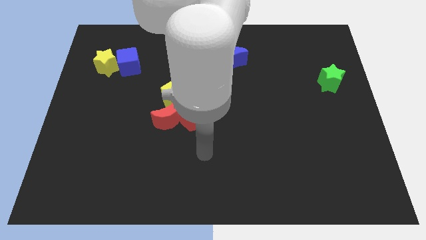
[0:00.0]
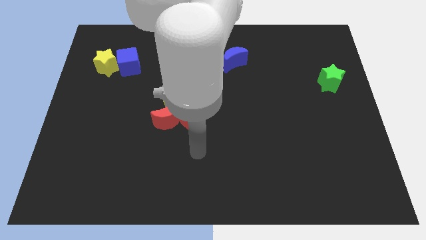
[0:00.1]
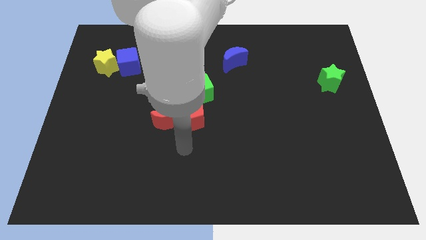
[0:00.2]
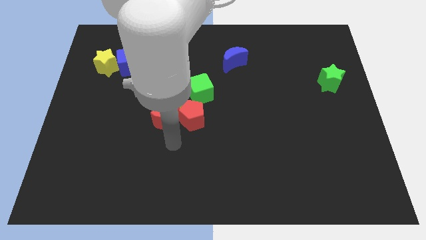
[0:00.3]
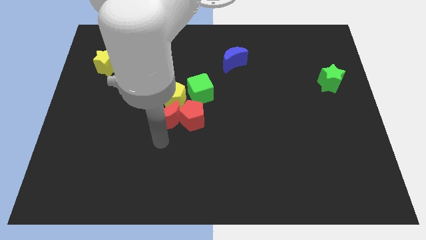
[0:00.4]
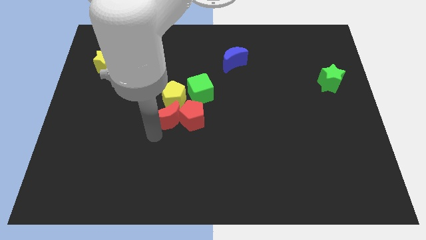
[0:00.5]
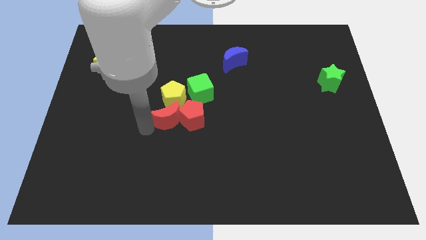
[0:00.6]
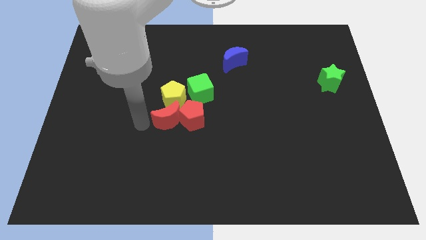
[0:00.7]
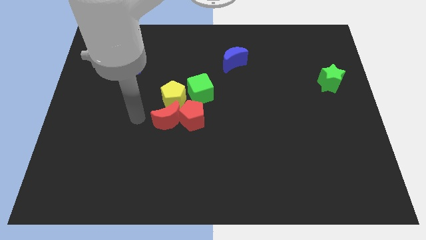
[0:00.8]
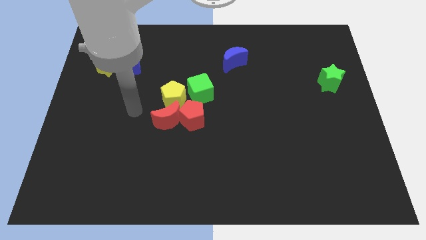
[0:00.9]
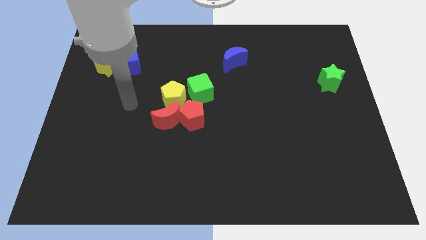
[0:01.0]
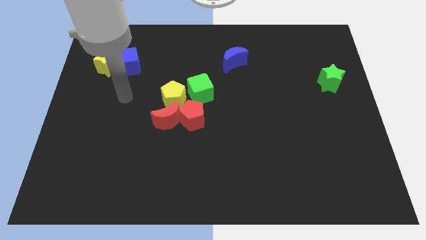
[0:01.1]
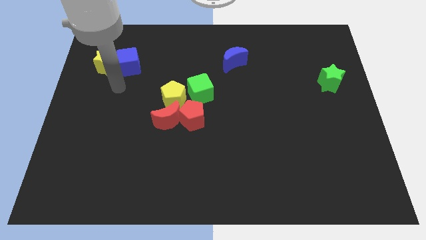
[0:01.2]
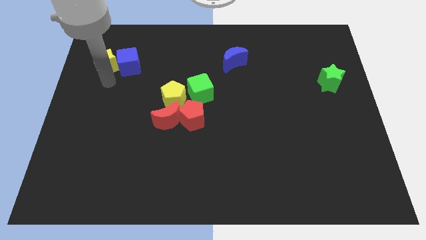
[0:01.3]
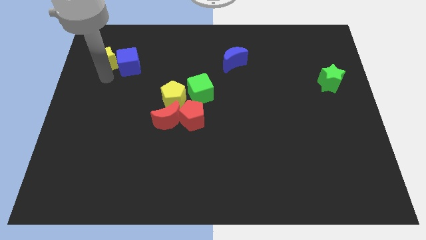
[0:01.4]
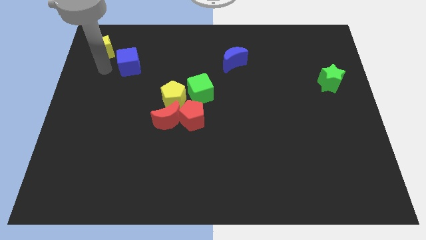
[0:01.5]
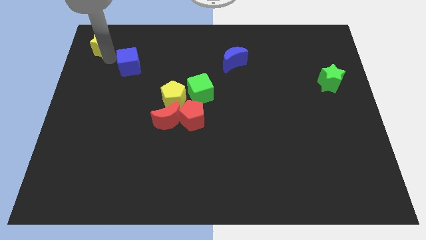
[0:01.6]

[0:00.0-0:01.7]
pull the blue cube apart from the yellow star

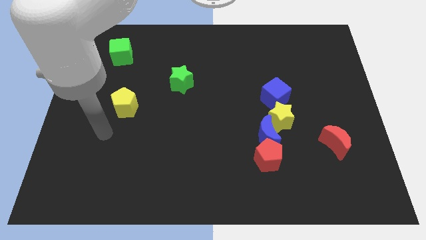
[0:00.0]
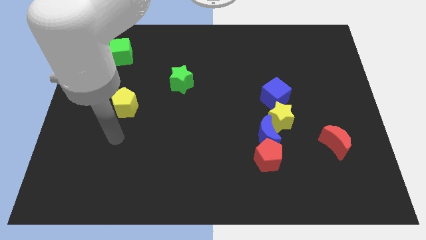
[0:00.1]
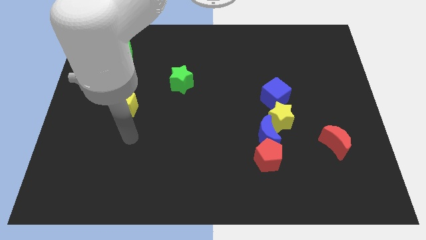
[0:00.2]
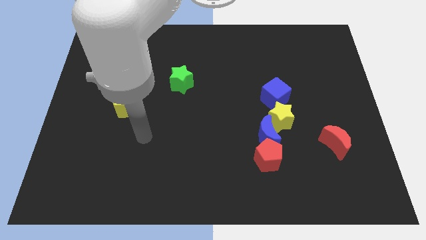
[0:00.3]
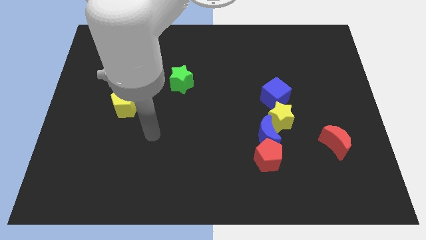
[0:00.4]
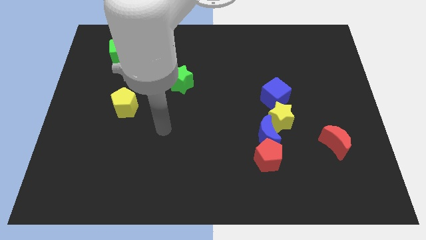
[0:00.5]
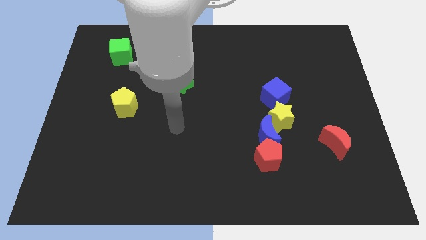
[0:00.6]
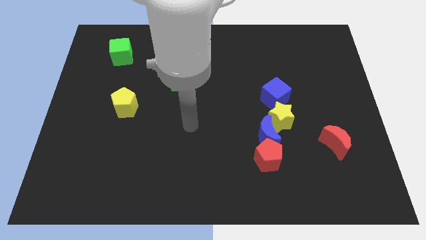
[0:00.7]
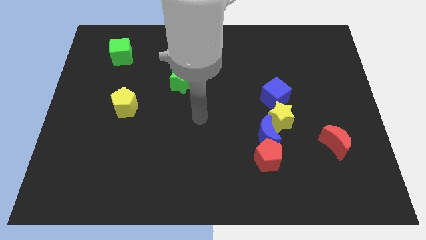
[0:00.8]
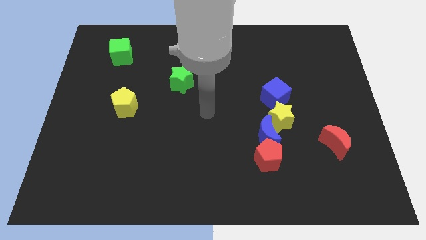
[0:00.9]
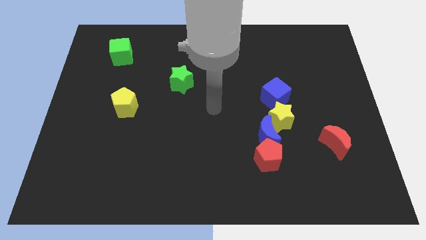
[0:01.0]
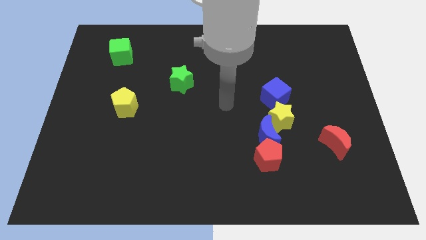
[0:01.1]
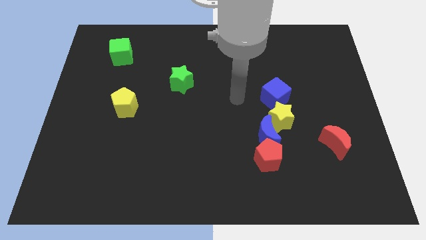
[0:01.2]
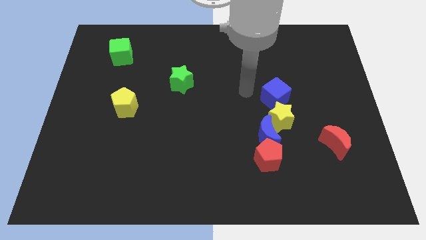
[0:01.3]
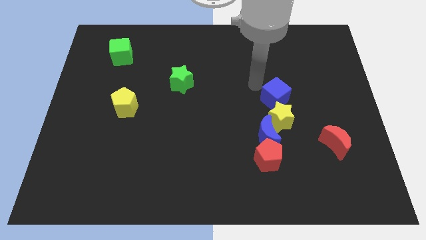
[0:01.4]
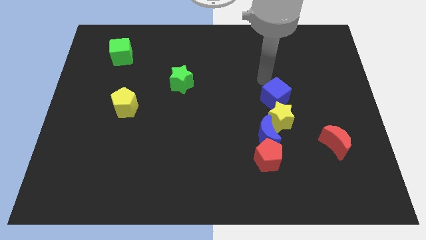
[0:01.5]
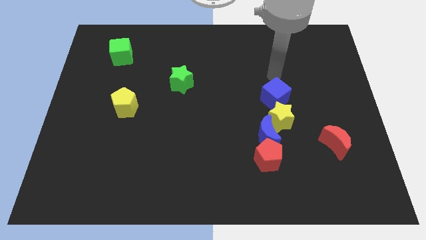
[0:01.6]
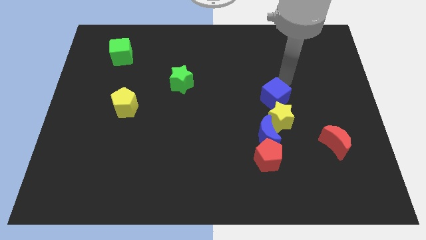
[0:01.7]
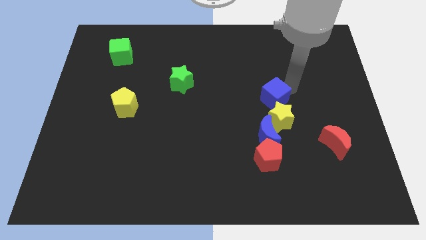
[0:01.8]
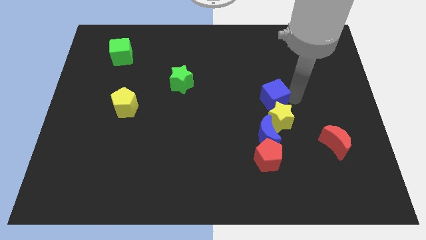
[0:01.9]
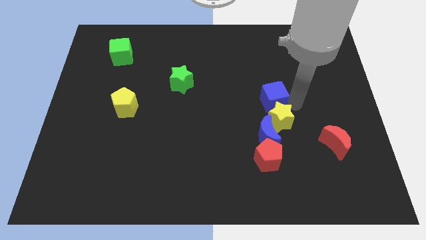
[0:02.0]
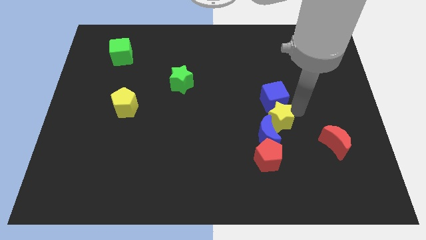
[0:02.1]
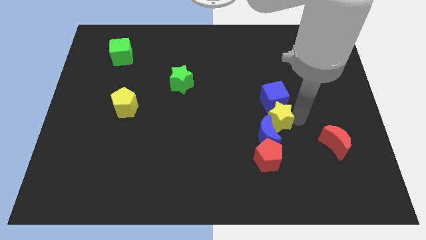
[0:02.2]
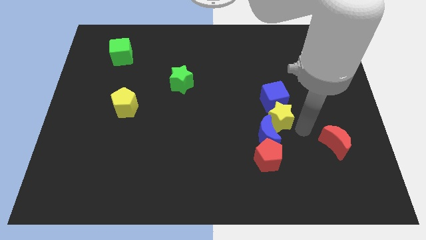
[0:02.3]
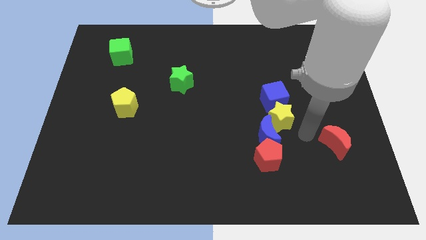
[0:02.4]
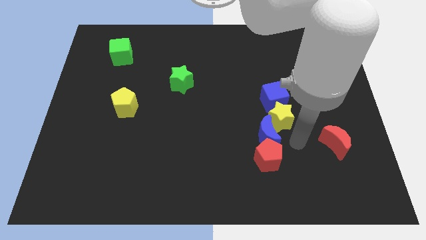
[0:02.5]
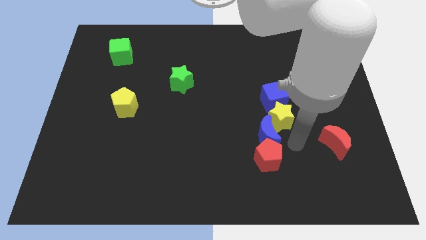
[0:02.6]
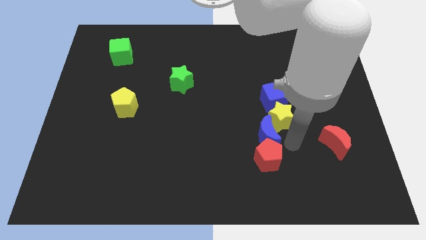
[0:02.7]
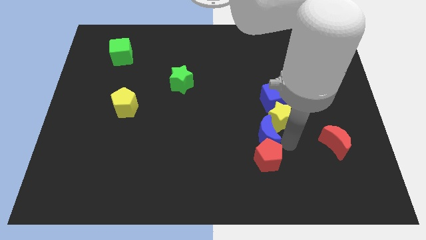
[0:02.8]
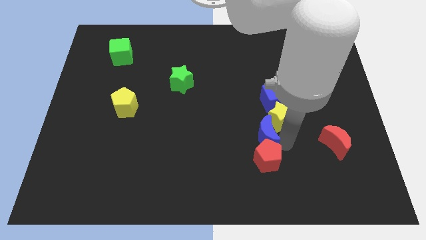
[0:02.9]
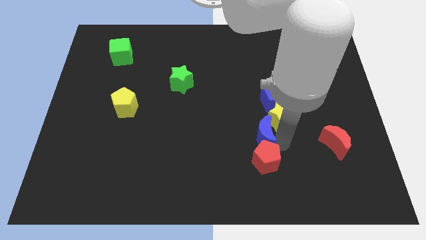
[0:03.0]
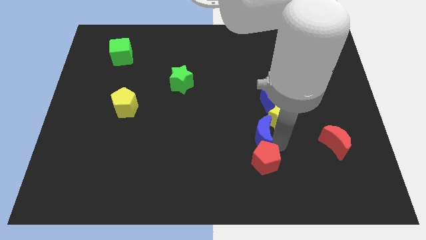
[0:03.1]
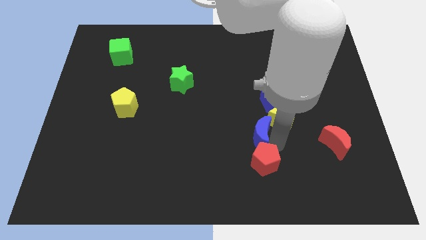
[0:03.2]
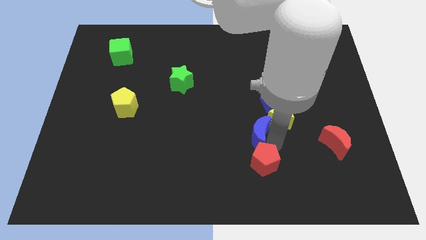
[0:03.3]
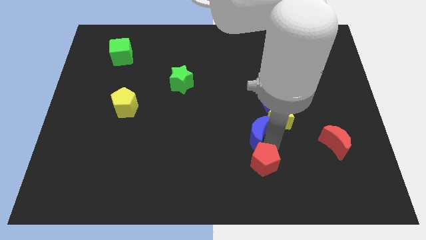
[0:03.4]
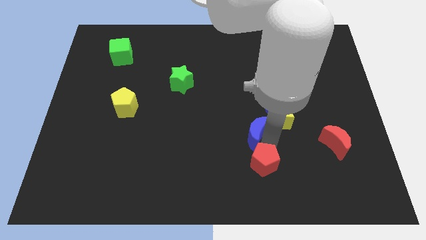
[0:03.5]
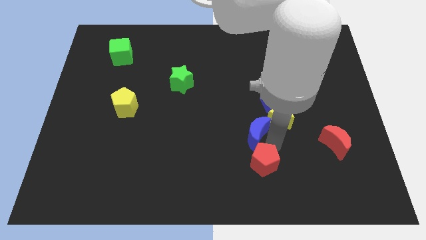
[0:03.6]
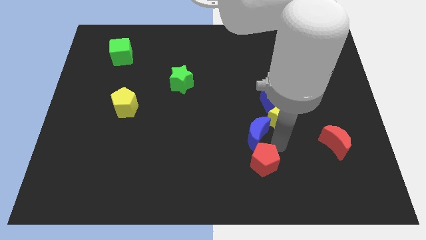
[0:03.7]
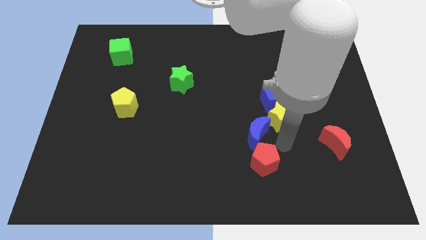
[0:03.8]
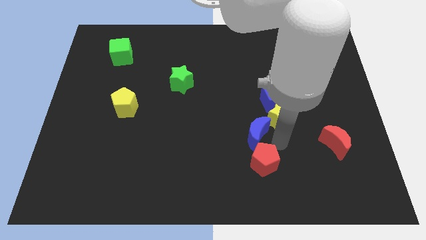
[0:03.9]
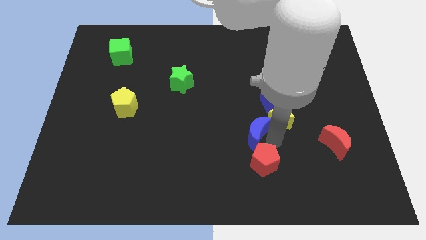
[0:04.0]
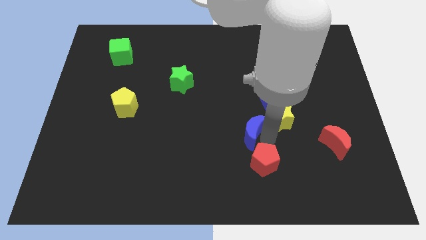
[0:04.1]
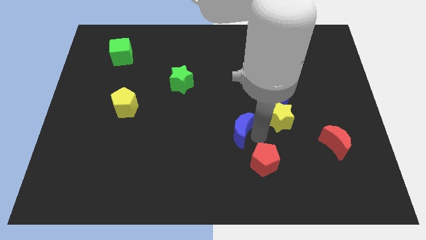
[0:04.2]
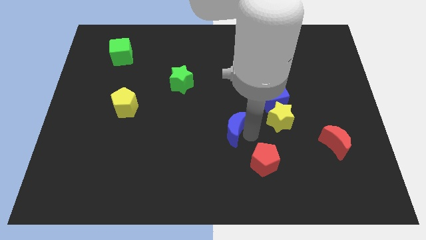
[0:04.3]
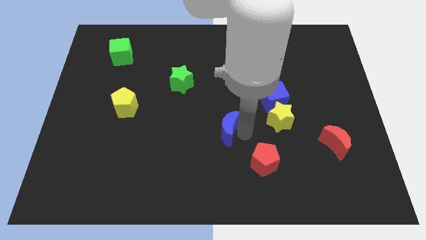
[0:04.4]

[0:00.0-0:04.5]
move the blue moon away from the yellow star and red pentagon

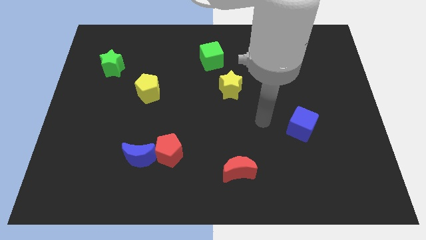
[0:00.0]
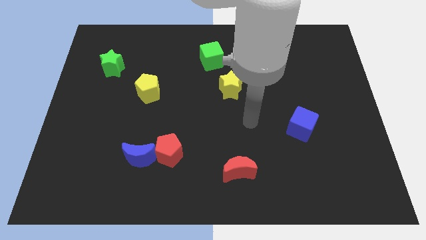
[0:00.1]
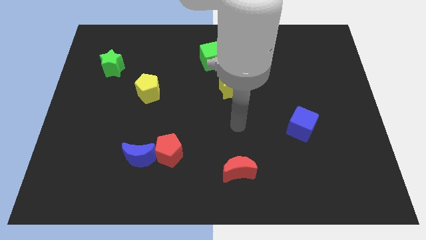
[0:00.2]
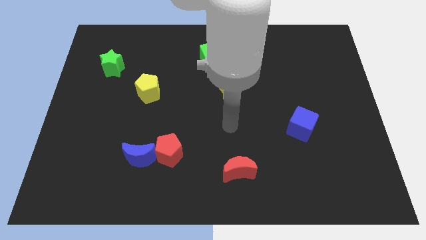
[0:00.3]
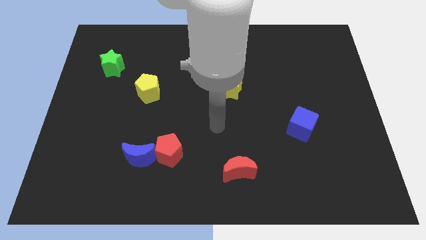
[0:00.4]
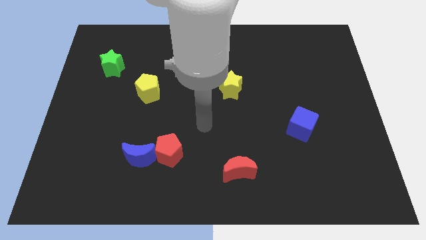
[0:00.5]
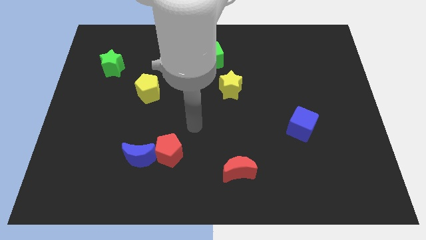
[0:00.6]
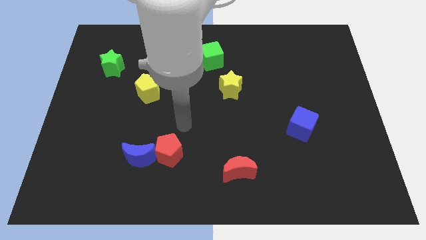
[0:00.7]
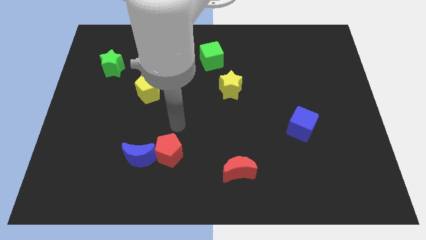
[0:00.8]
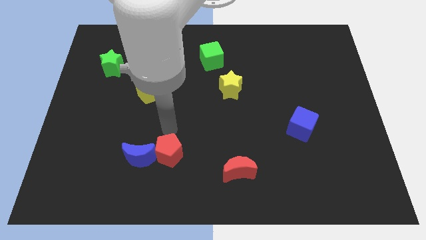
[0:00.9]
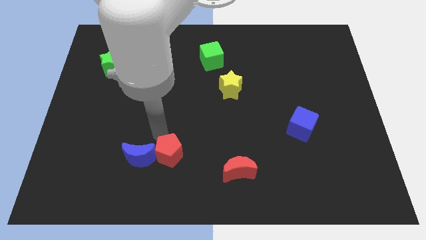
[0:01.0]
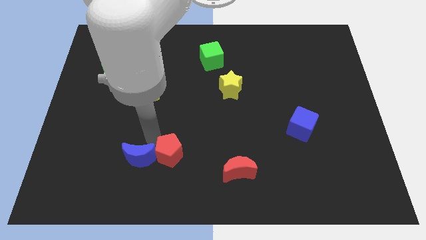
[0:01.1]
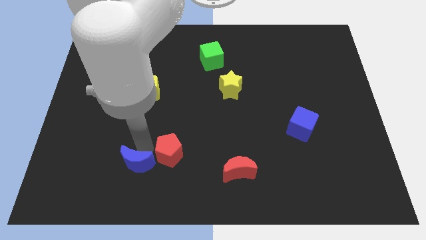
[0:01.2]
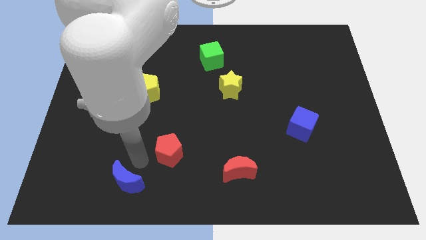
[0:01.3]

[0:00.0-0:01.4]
pull the red pentagon apart from the blue moon

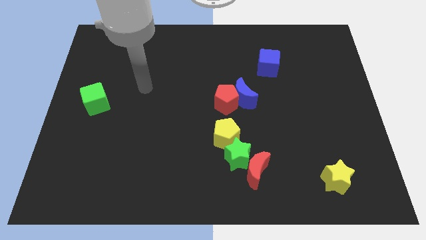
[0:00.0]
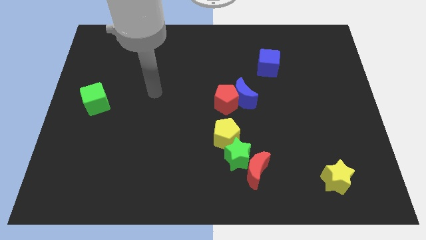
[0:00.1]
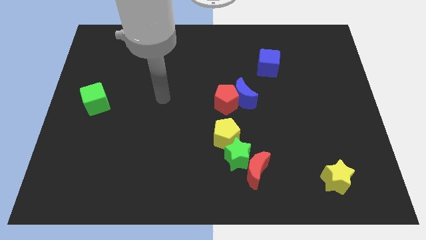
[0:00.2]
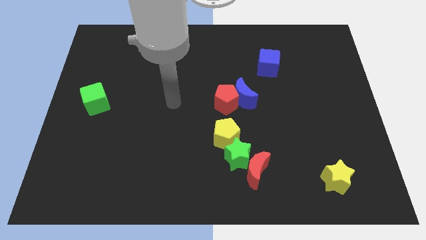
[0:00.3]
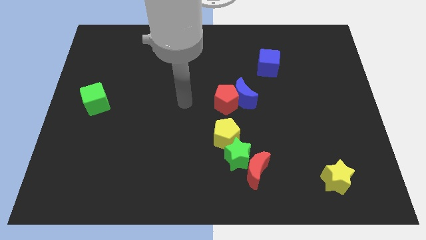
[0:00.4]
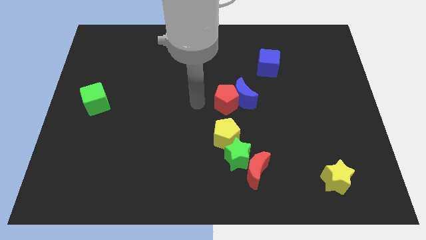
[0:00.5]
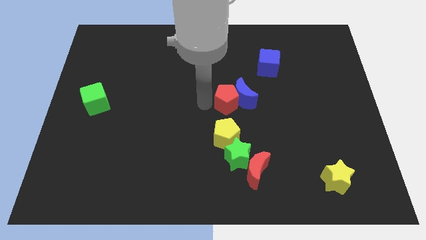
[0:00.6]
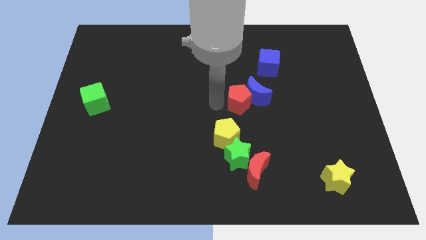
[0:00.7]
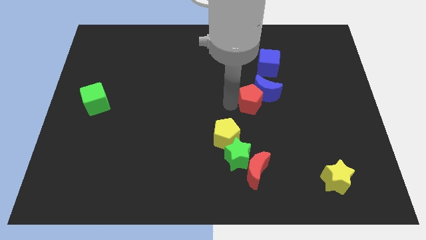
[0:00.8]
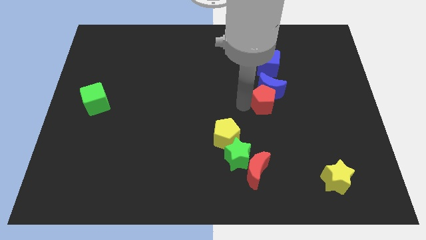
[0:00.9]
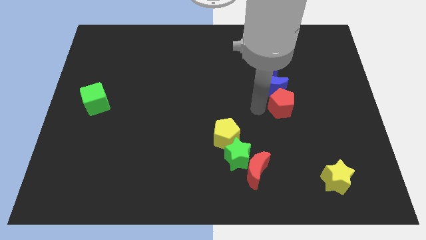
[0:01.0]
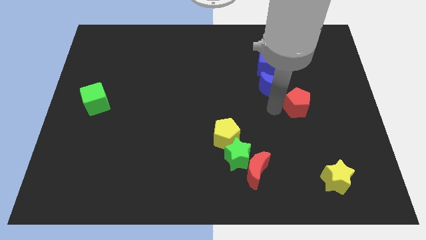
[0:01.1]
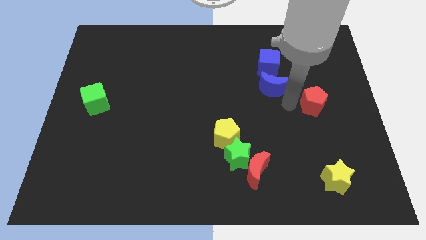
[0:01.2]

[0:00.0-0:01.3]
separate the blue moon from the red pentagon

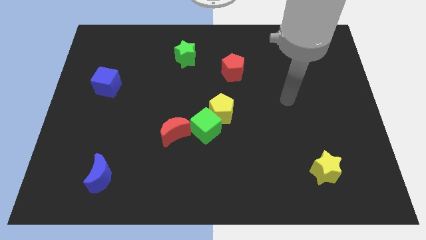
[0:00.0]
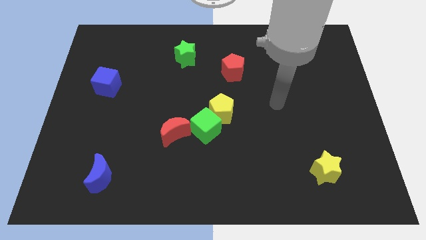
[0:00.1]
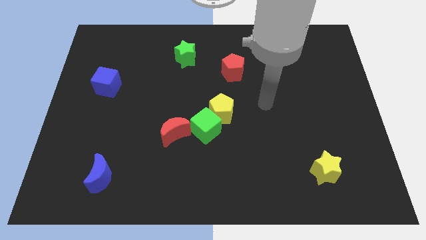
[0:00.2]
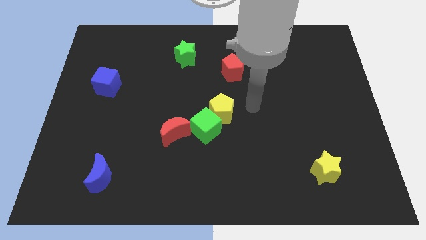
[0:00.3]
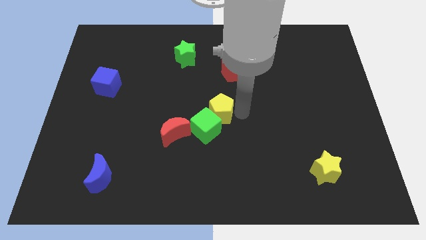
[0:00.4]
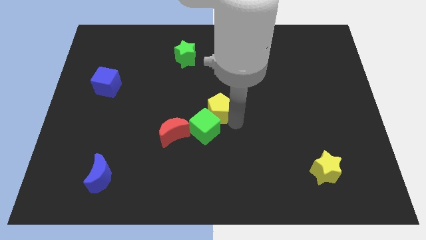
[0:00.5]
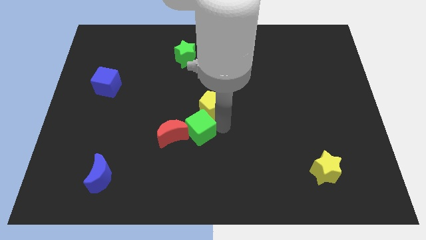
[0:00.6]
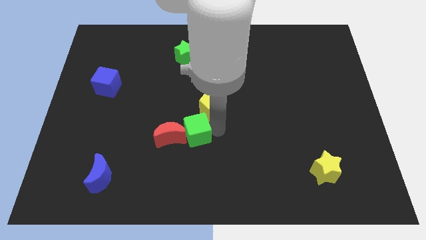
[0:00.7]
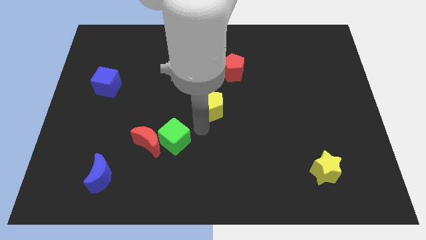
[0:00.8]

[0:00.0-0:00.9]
separate the yellow pentagon from the green cube
